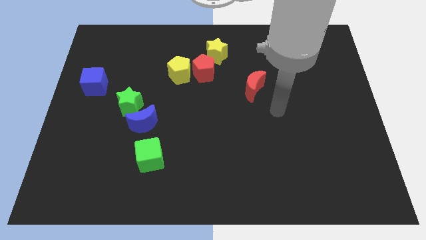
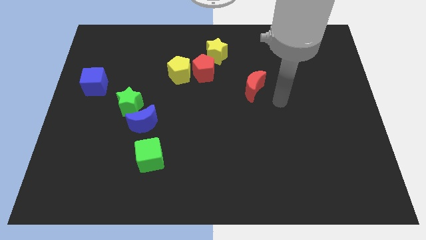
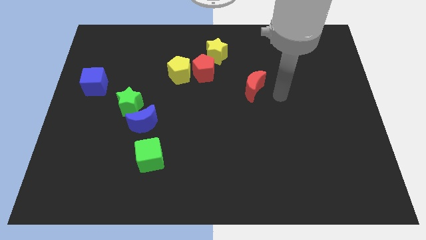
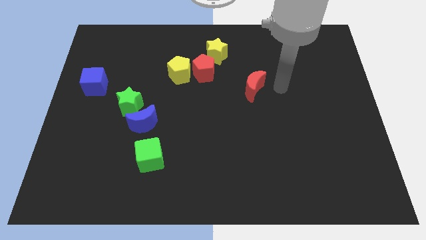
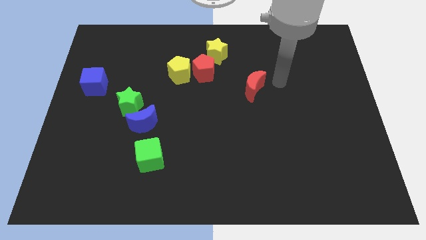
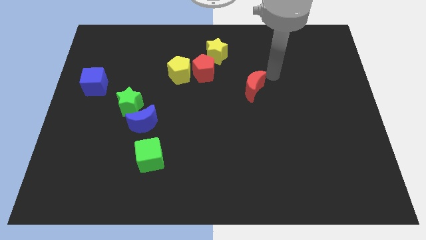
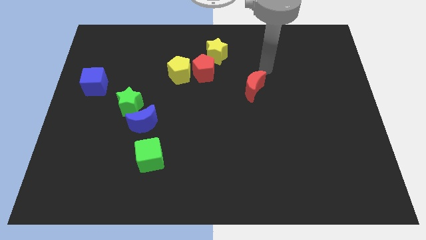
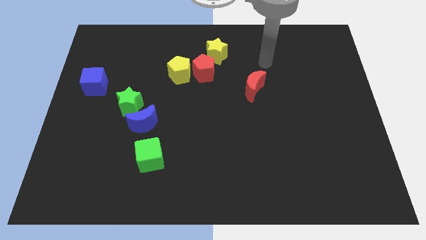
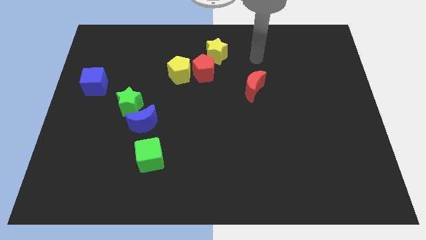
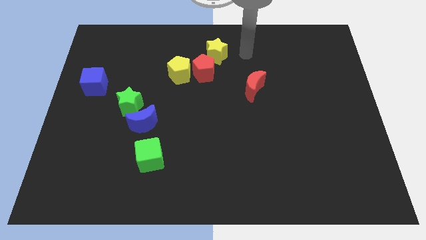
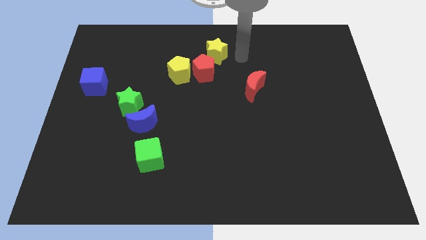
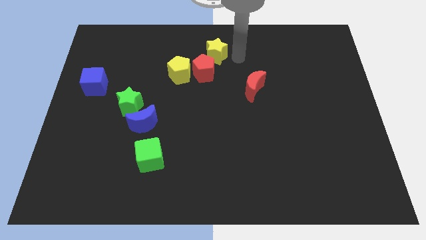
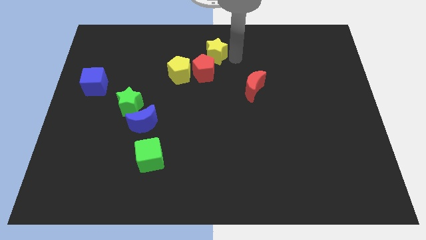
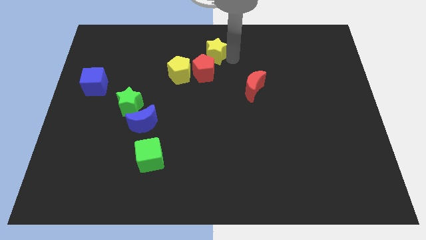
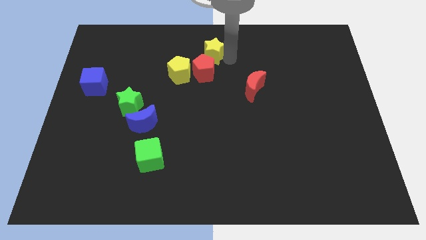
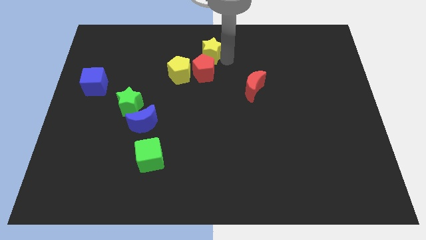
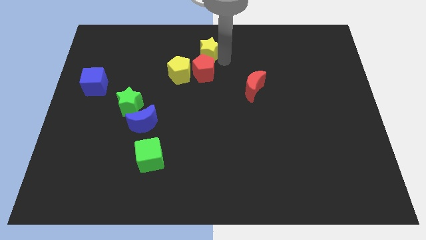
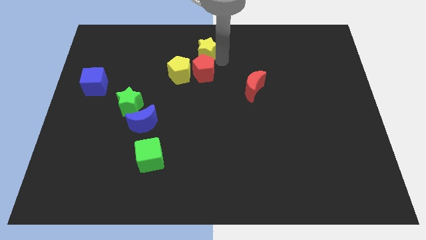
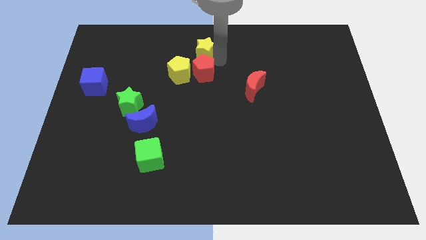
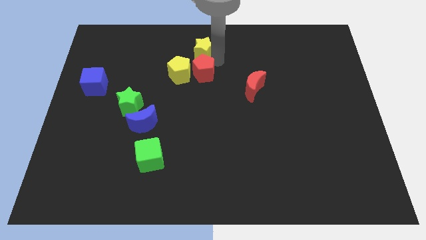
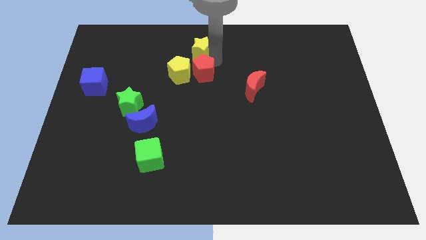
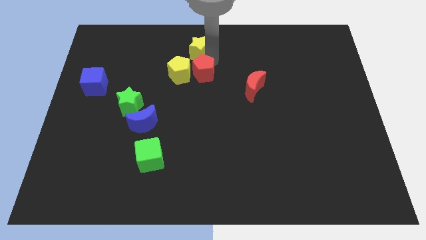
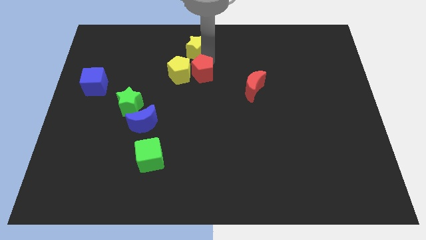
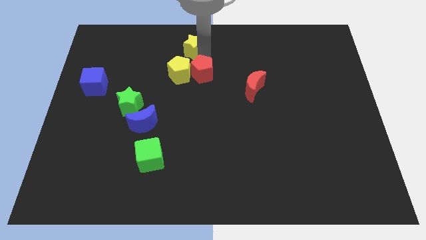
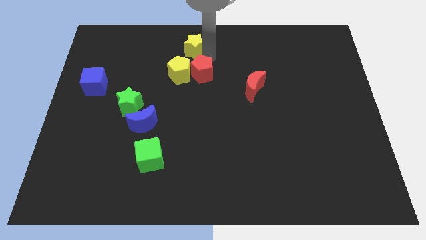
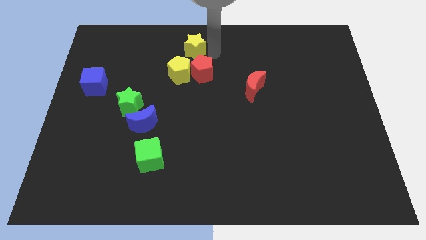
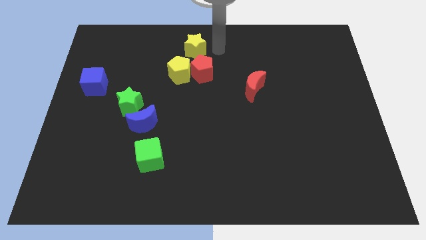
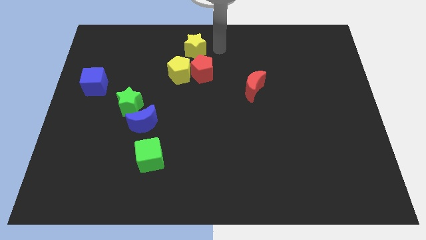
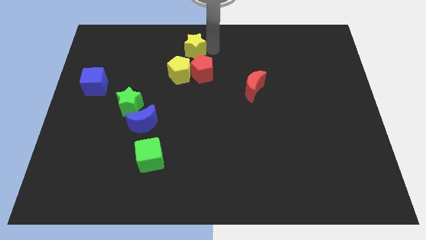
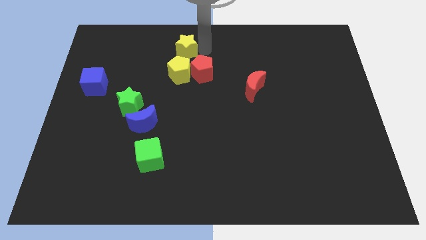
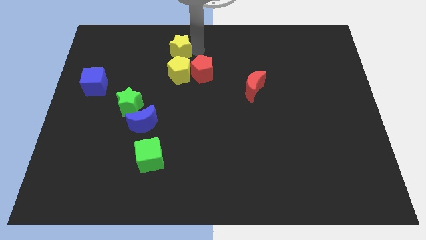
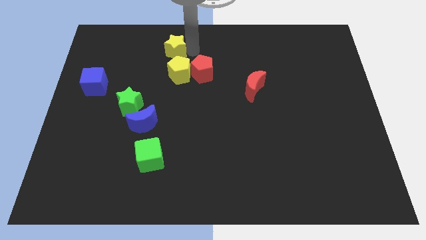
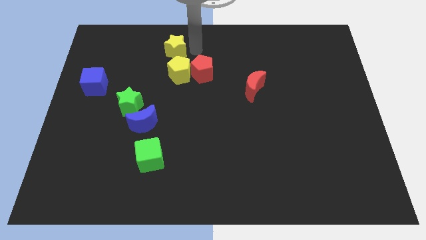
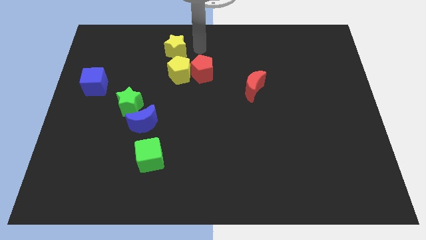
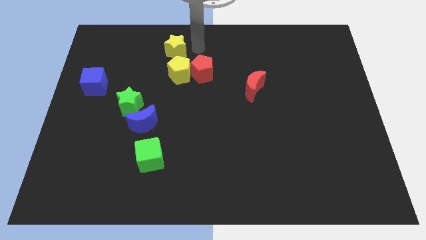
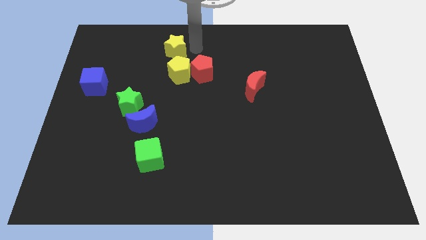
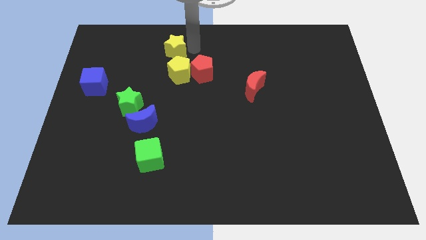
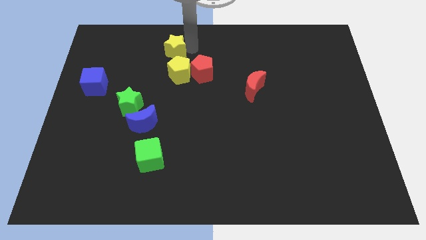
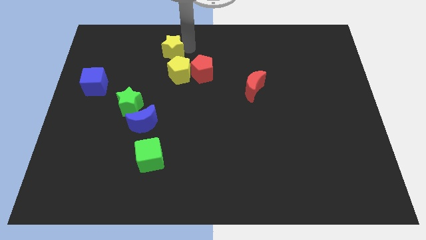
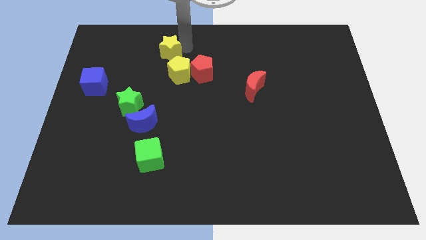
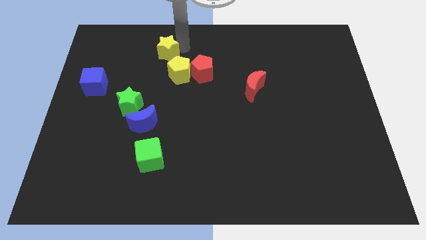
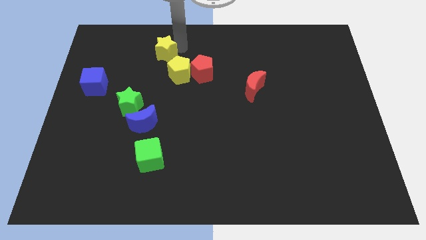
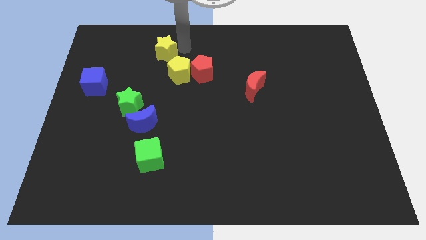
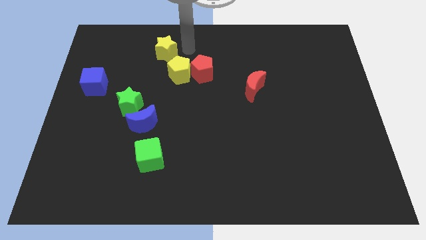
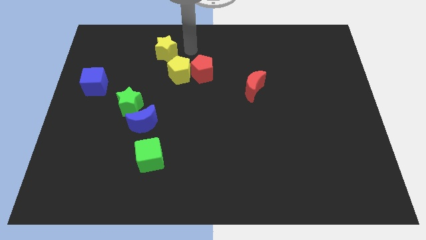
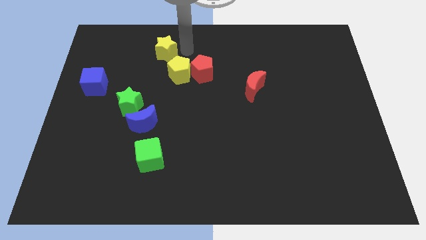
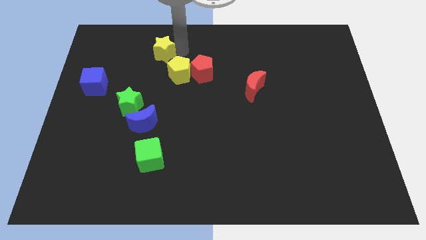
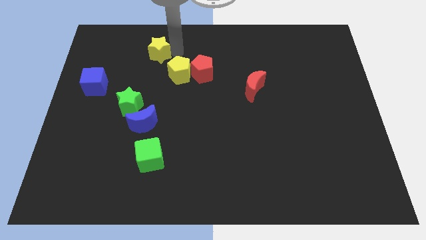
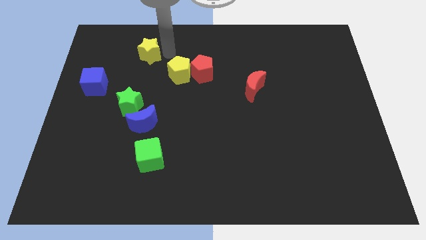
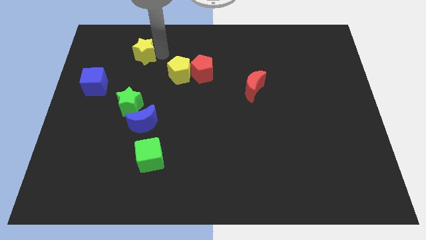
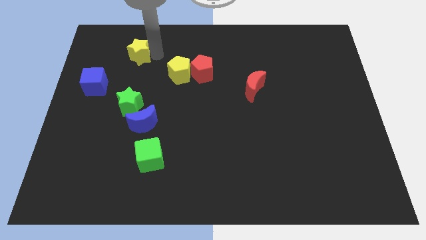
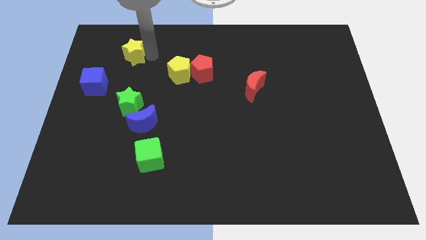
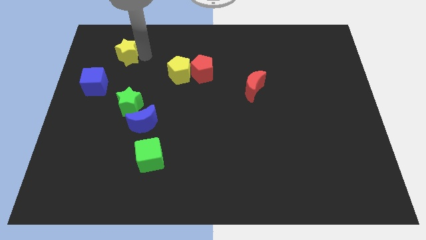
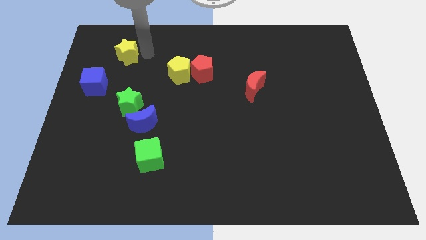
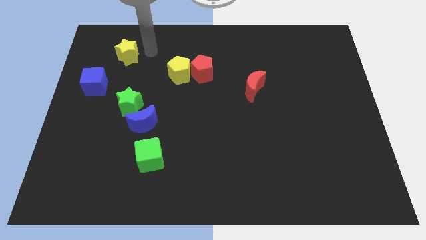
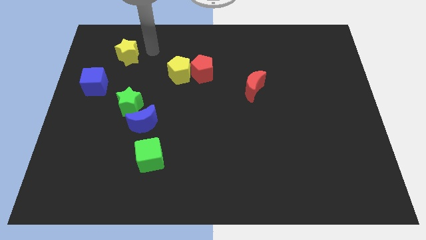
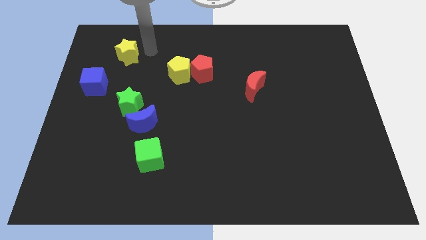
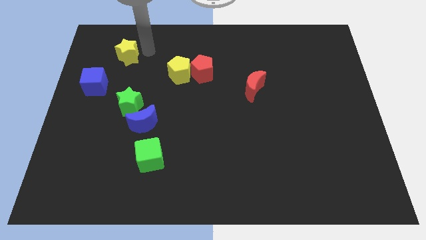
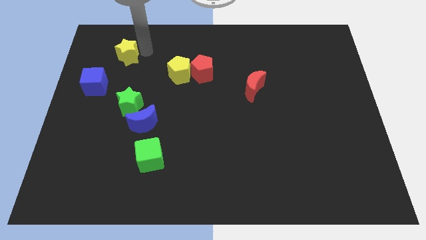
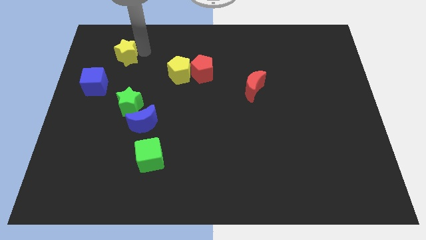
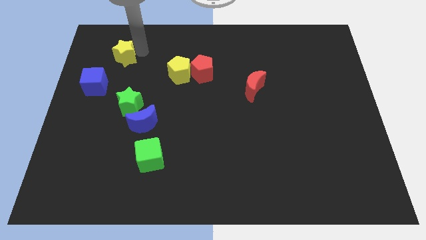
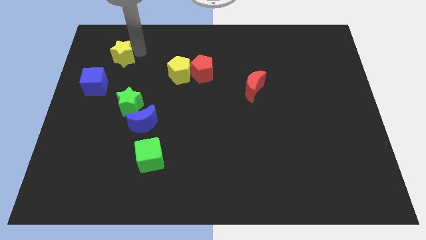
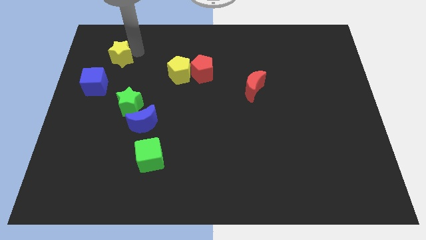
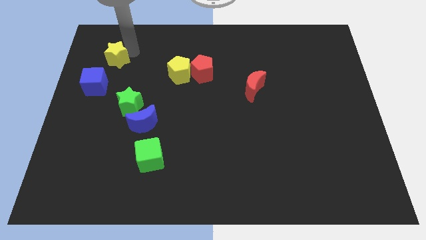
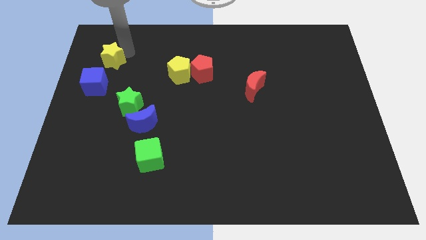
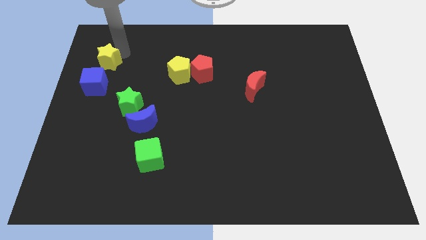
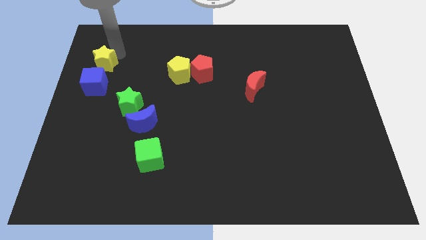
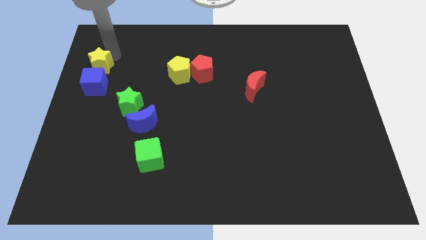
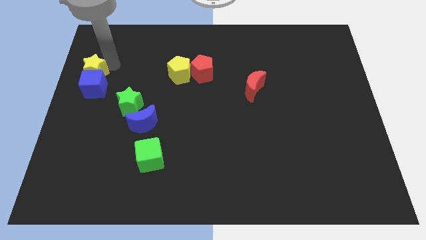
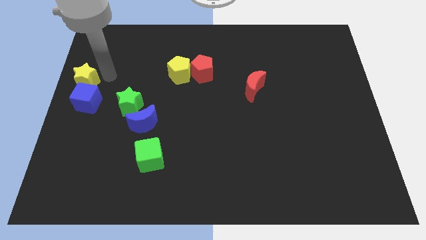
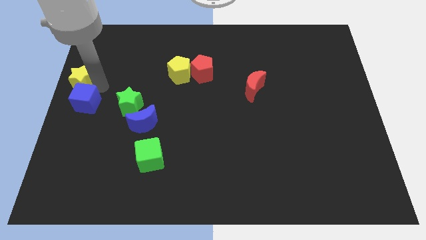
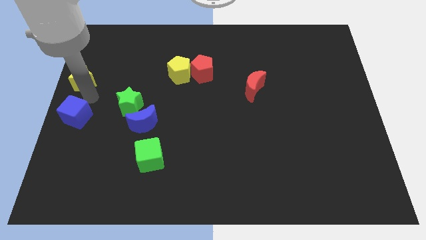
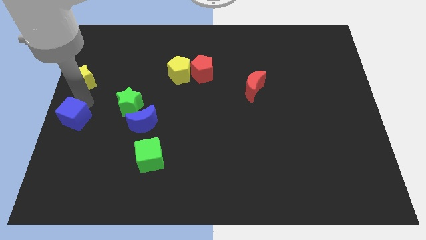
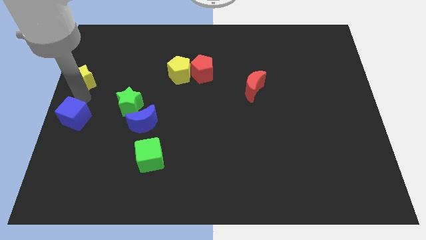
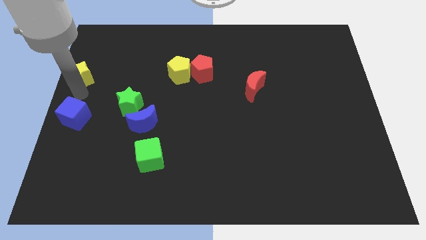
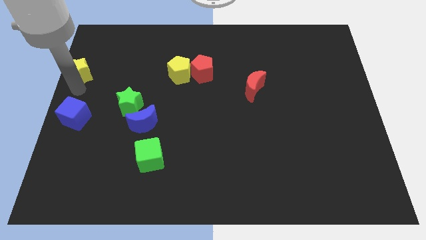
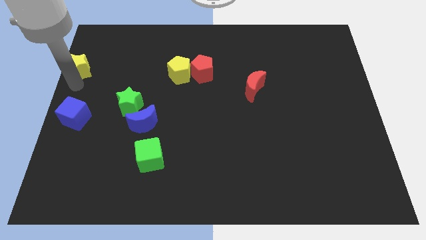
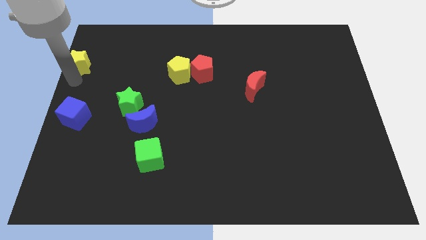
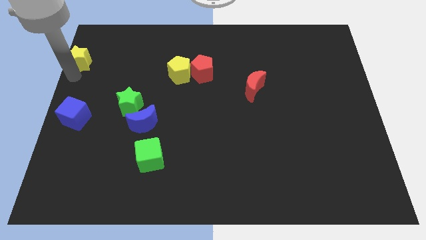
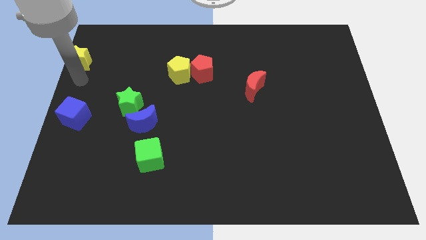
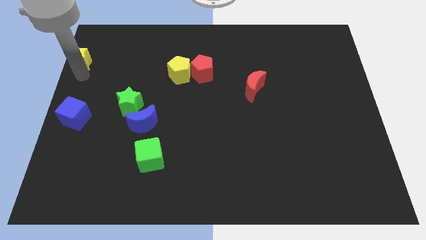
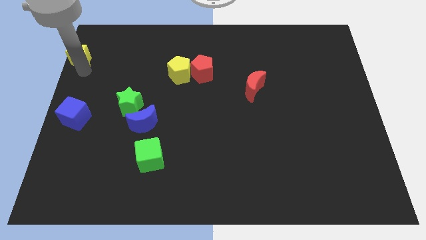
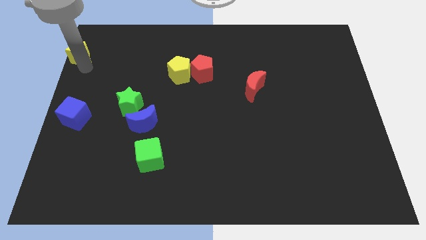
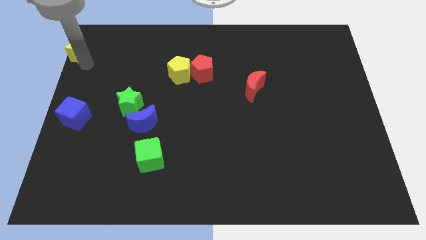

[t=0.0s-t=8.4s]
put the yellow star to the top left
